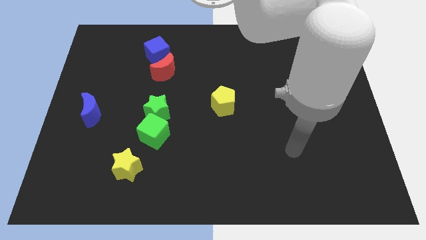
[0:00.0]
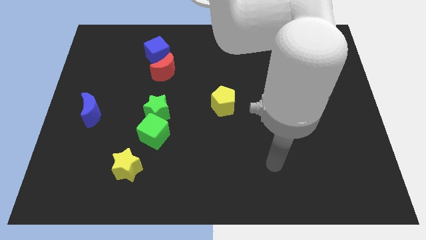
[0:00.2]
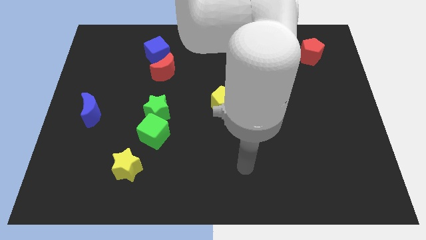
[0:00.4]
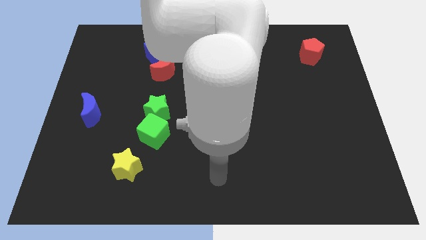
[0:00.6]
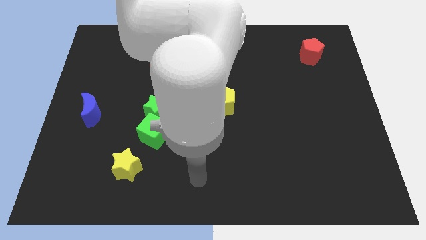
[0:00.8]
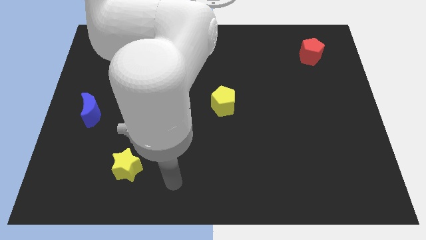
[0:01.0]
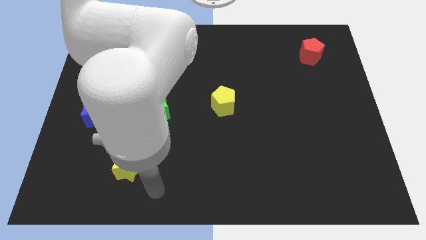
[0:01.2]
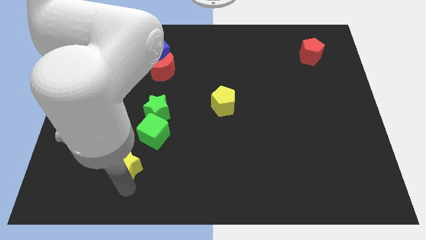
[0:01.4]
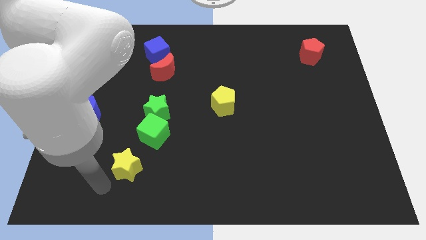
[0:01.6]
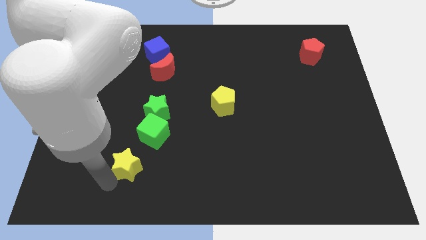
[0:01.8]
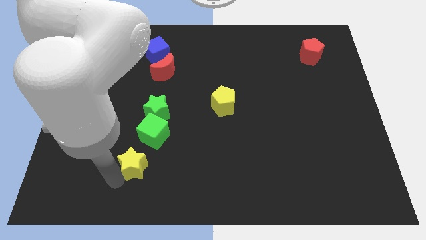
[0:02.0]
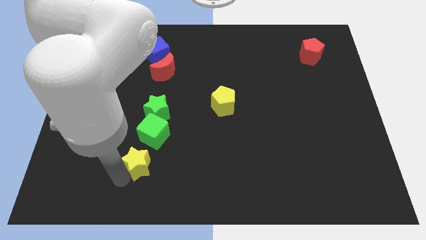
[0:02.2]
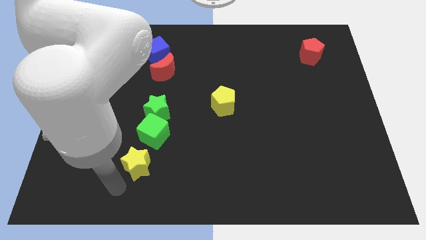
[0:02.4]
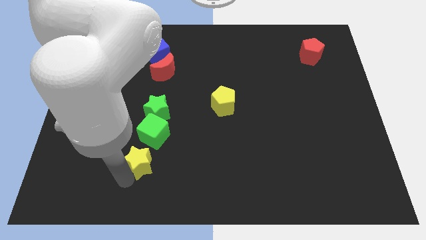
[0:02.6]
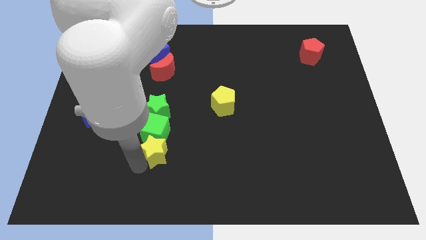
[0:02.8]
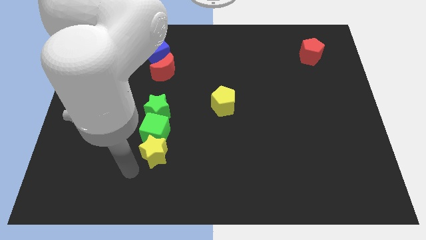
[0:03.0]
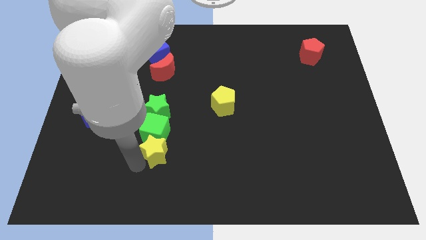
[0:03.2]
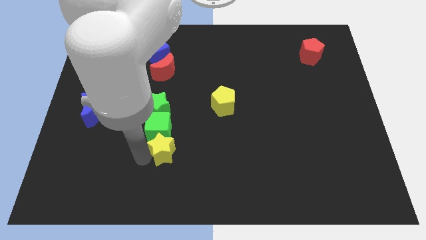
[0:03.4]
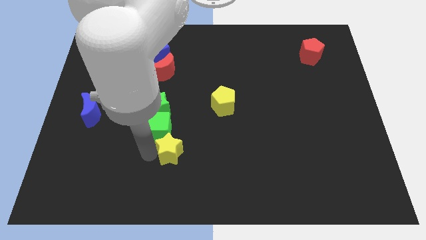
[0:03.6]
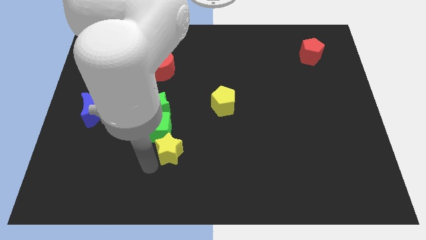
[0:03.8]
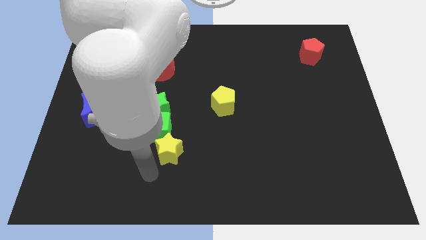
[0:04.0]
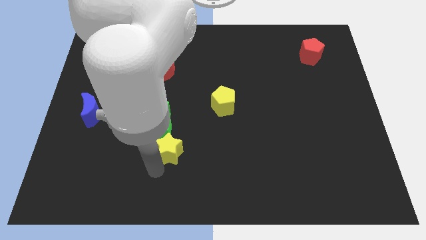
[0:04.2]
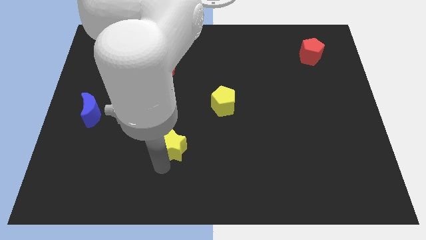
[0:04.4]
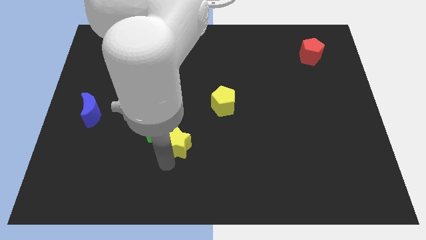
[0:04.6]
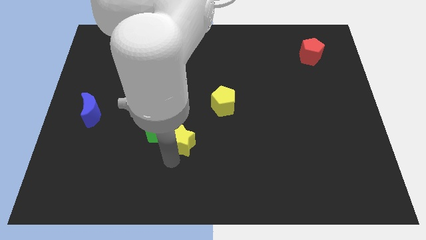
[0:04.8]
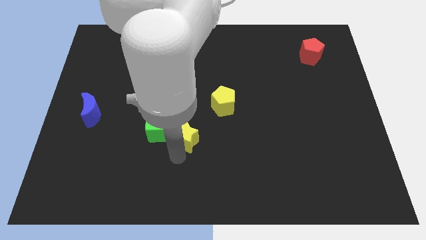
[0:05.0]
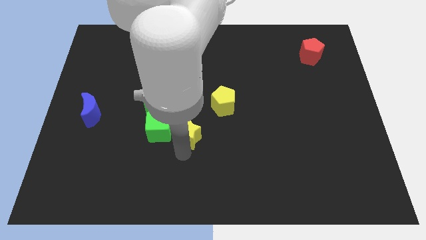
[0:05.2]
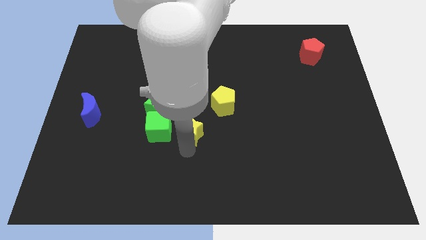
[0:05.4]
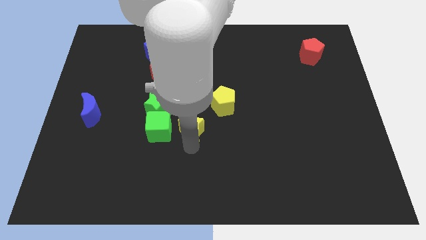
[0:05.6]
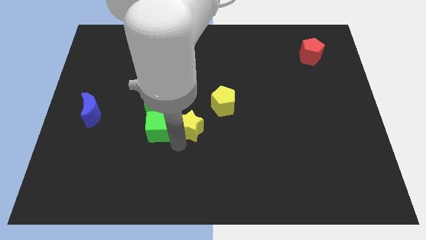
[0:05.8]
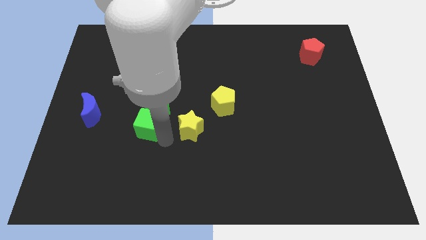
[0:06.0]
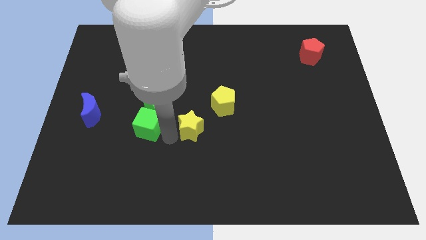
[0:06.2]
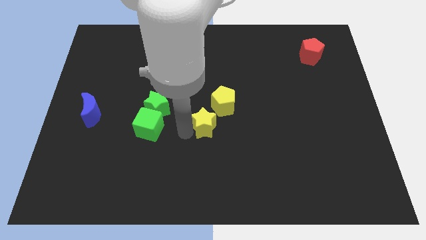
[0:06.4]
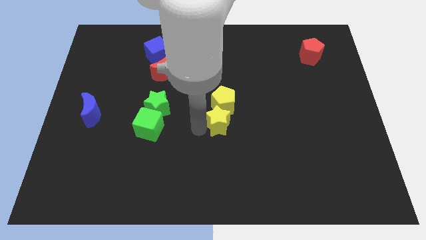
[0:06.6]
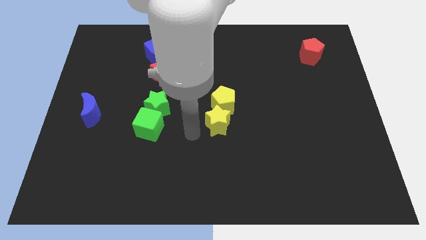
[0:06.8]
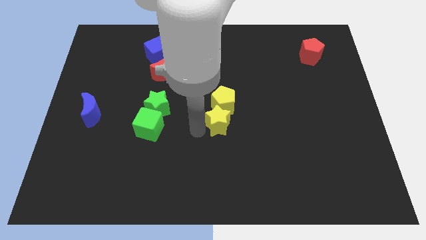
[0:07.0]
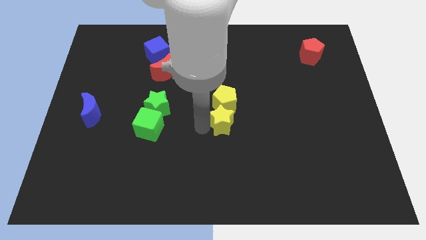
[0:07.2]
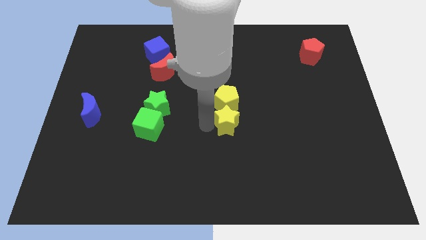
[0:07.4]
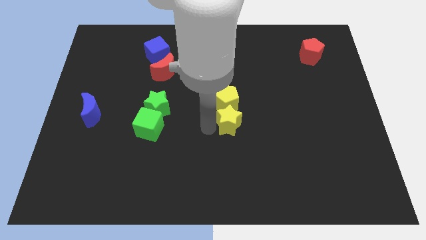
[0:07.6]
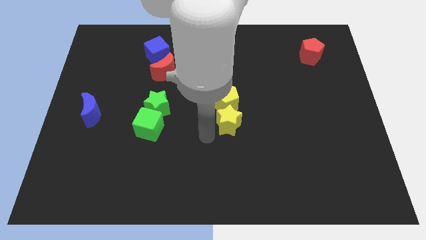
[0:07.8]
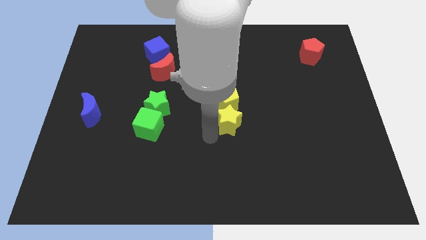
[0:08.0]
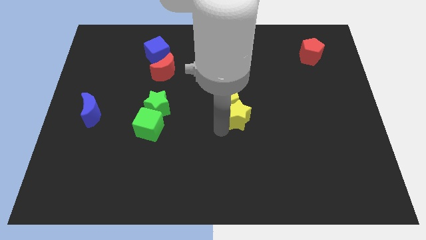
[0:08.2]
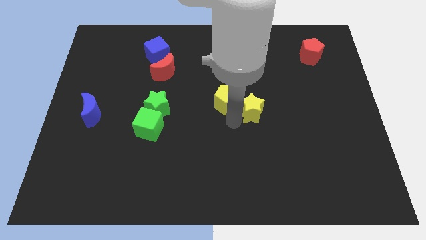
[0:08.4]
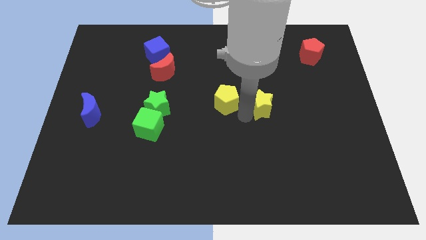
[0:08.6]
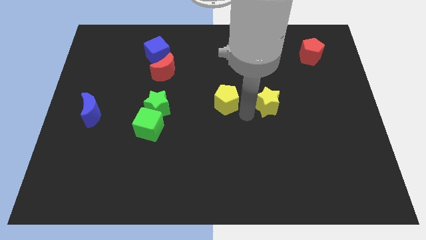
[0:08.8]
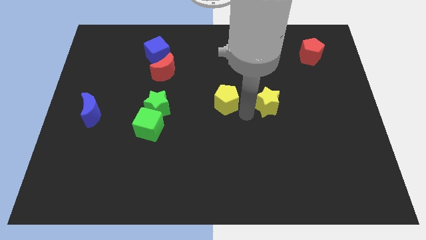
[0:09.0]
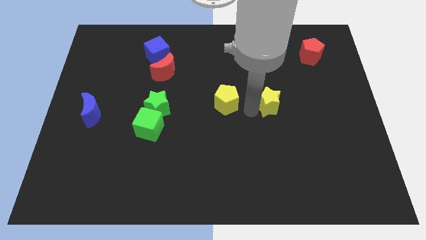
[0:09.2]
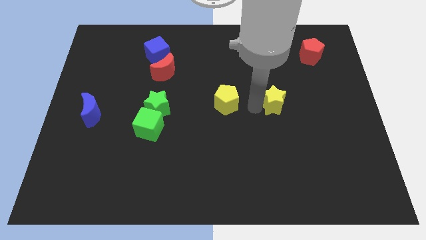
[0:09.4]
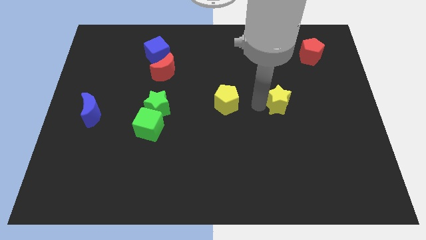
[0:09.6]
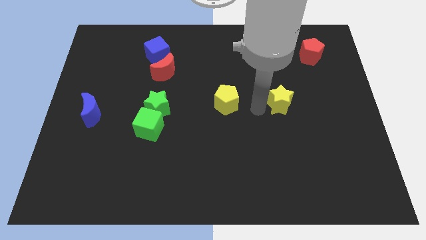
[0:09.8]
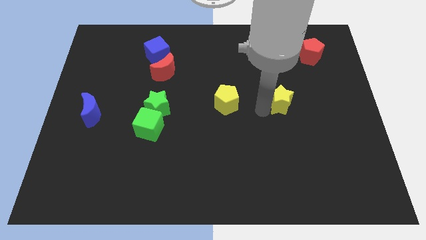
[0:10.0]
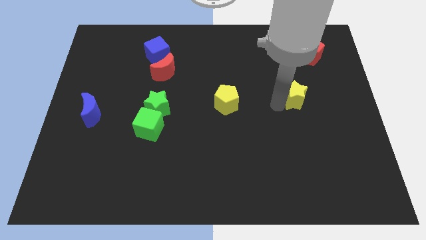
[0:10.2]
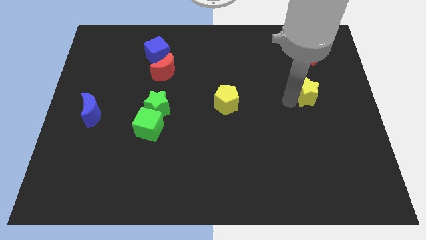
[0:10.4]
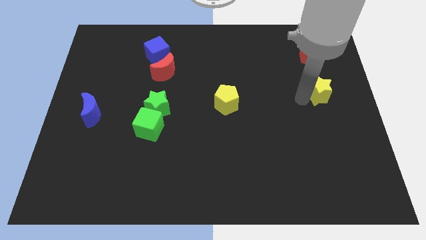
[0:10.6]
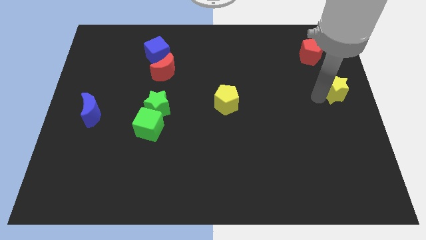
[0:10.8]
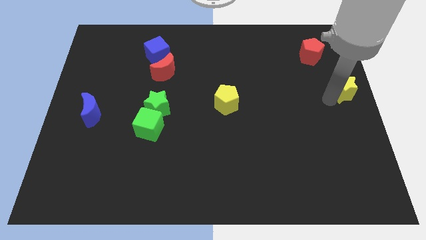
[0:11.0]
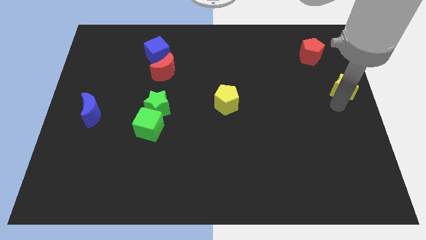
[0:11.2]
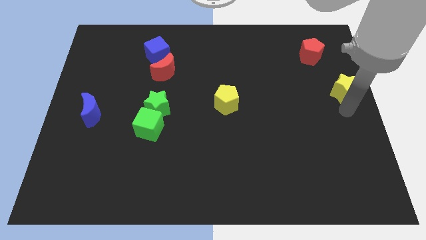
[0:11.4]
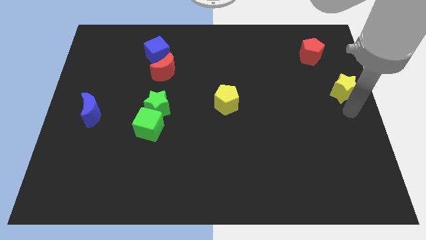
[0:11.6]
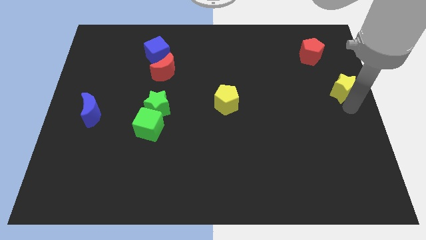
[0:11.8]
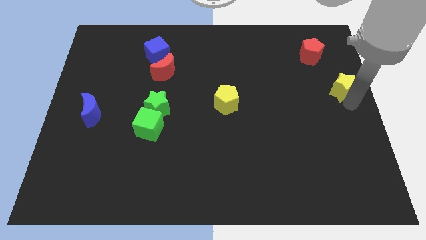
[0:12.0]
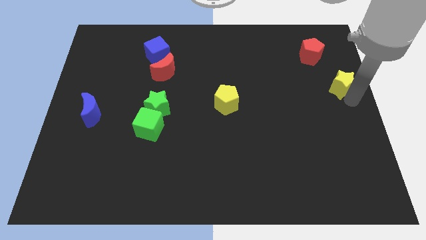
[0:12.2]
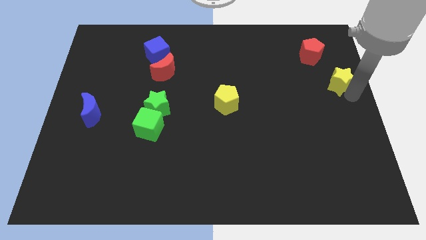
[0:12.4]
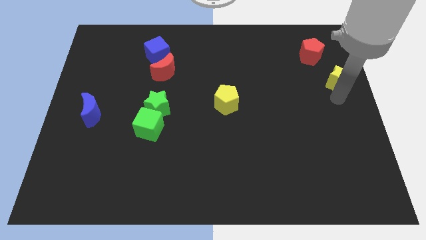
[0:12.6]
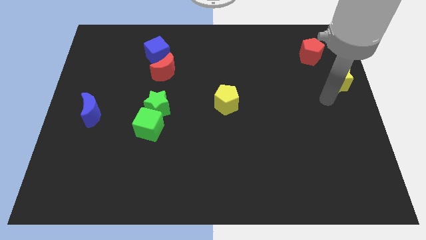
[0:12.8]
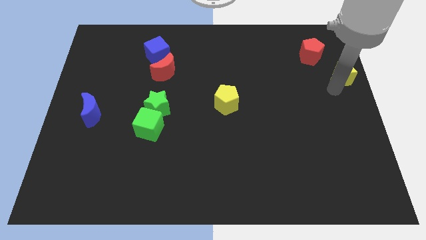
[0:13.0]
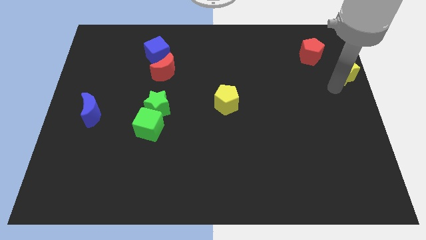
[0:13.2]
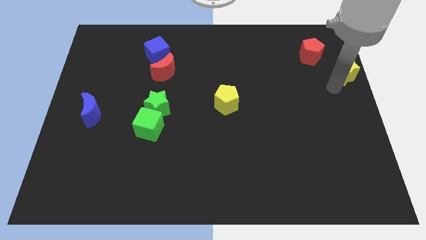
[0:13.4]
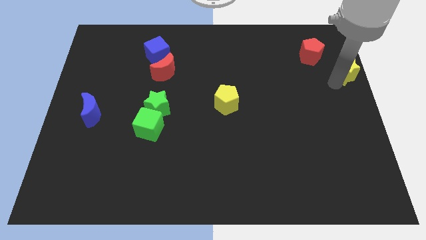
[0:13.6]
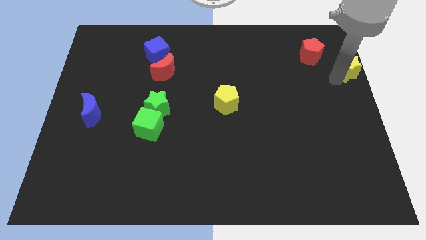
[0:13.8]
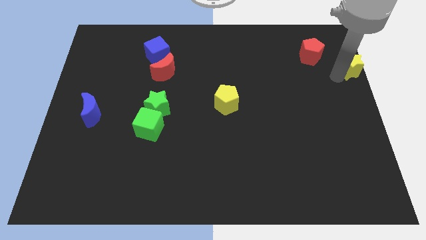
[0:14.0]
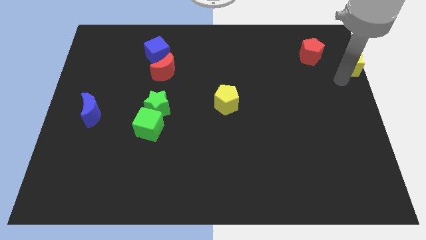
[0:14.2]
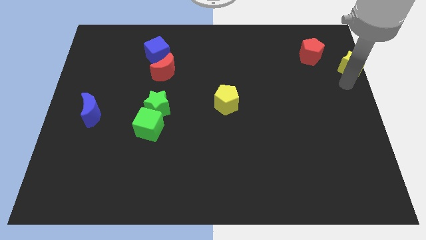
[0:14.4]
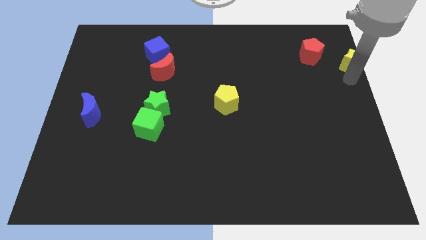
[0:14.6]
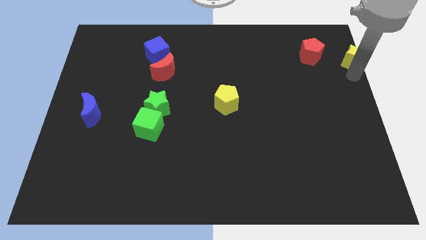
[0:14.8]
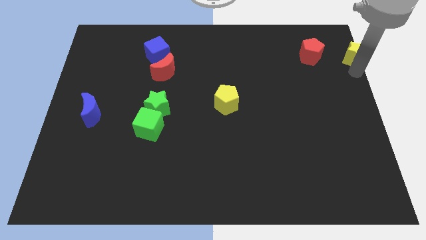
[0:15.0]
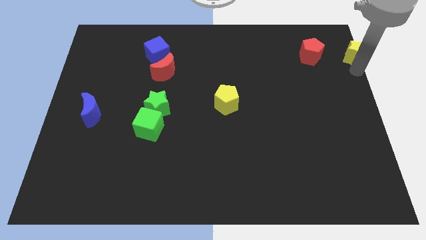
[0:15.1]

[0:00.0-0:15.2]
move the yellow star to the upper right corner

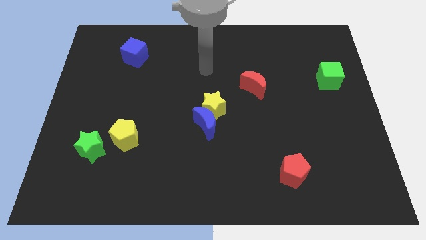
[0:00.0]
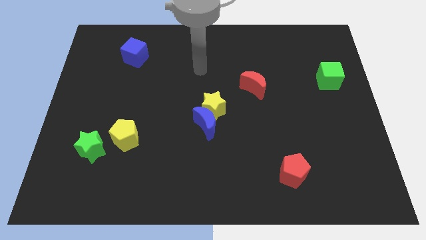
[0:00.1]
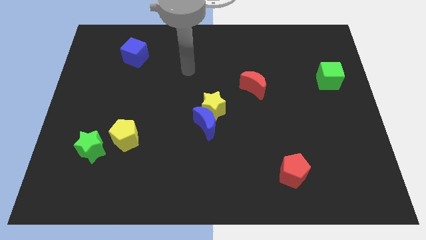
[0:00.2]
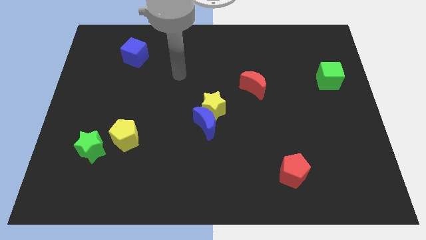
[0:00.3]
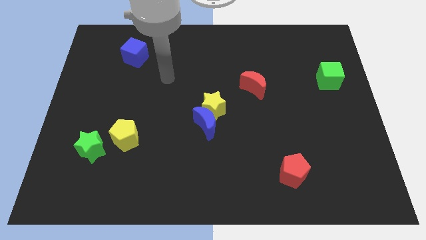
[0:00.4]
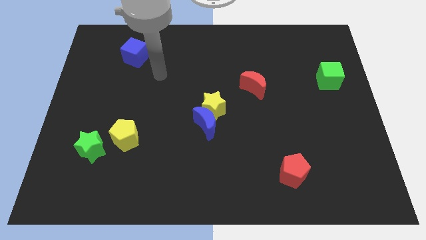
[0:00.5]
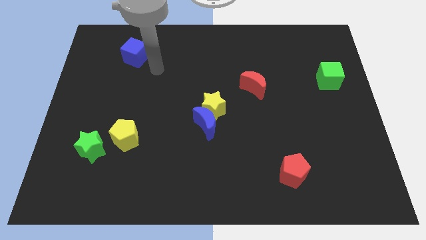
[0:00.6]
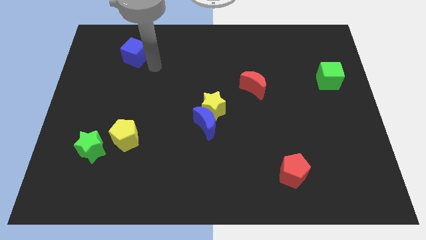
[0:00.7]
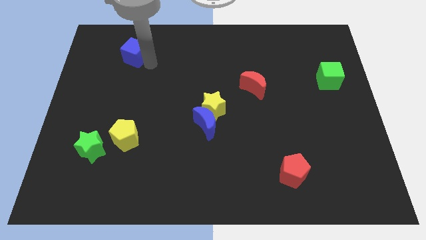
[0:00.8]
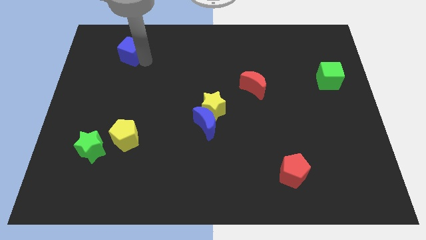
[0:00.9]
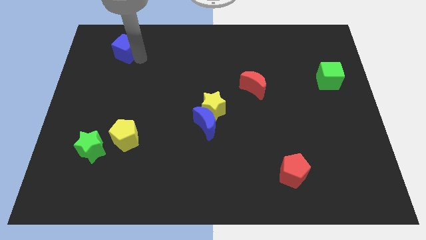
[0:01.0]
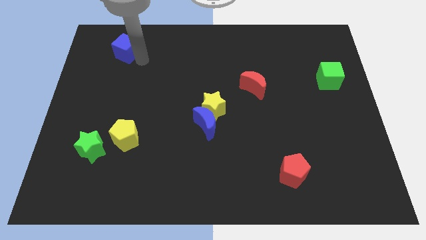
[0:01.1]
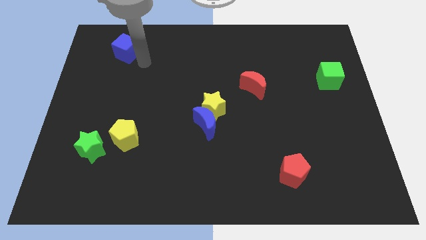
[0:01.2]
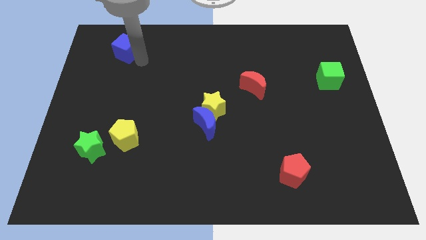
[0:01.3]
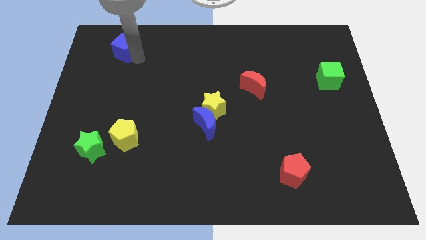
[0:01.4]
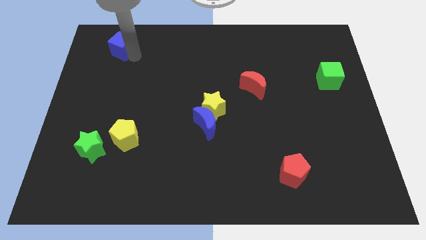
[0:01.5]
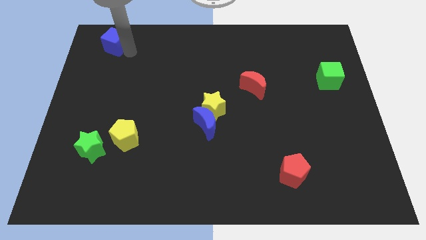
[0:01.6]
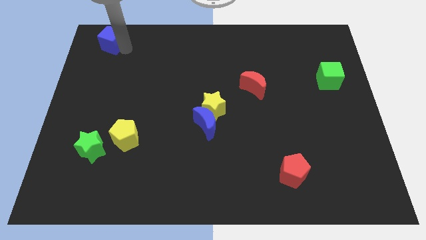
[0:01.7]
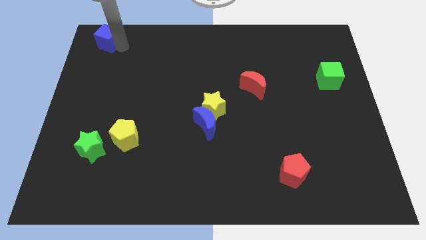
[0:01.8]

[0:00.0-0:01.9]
push the blue cube to the upper left corner
